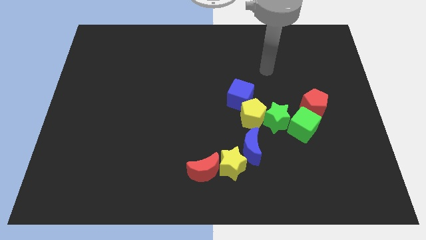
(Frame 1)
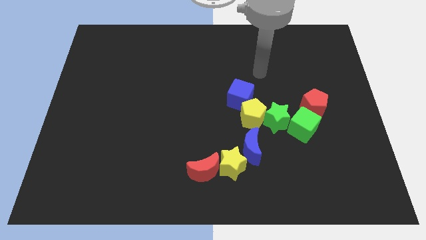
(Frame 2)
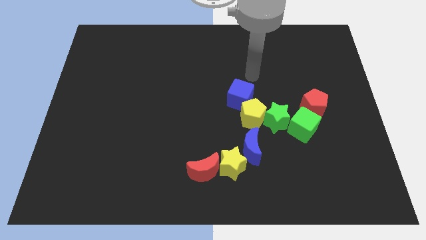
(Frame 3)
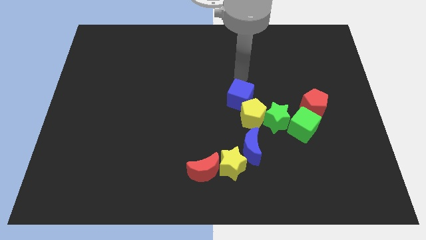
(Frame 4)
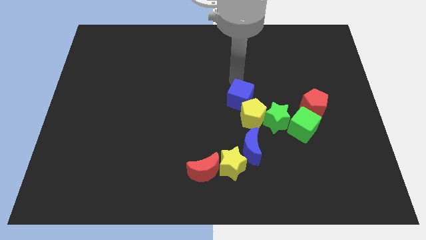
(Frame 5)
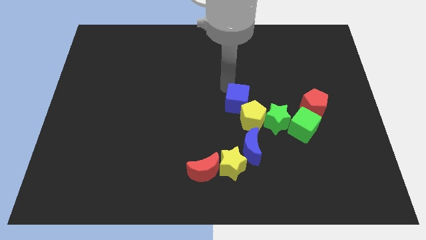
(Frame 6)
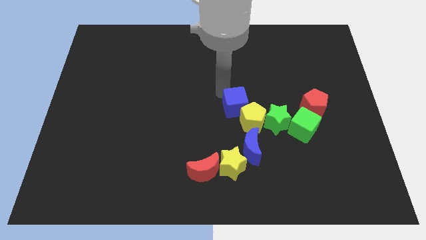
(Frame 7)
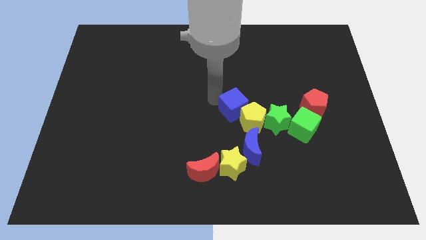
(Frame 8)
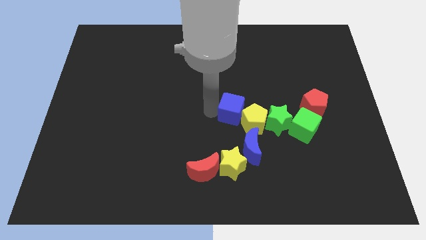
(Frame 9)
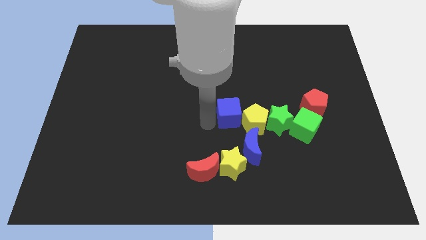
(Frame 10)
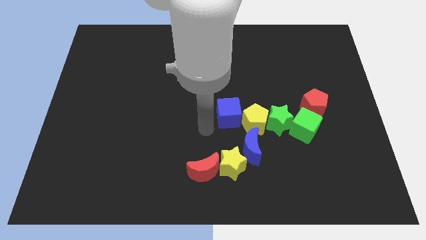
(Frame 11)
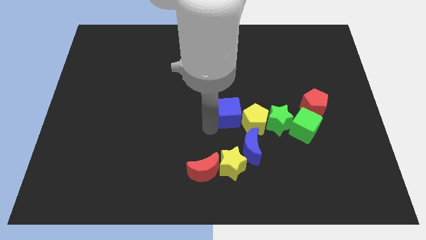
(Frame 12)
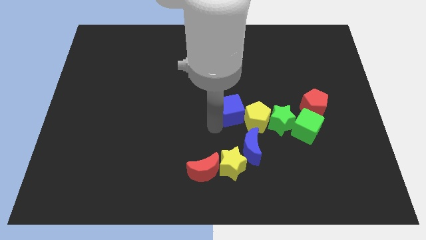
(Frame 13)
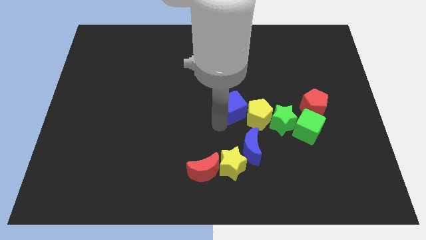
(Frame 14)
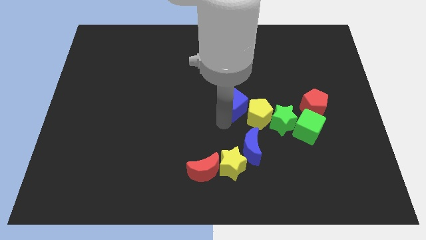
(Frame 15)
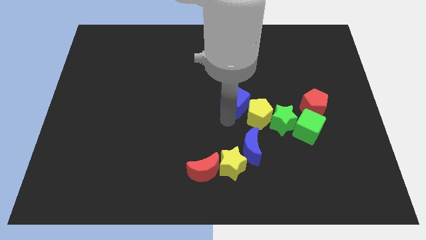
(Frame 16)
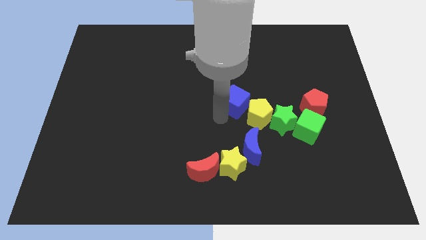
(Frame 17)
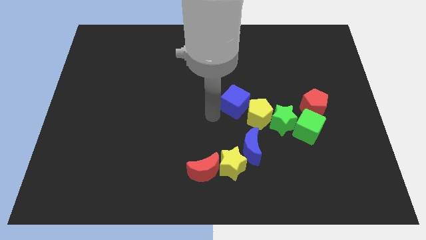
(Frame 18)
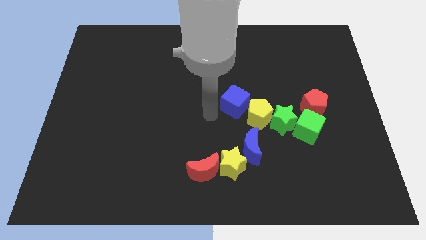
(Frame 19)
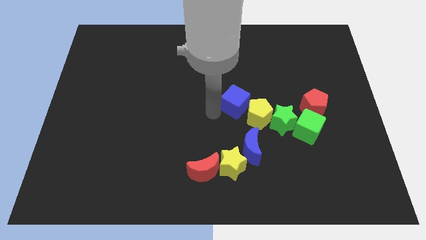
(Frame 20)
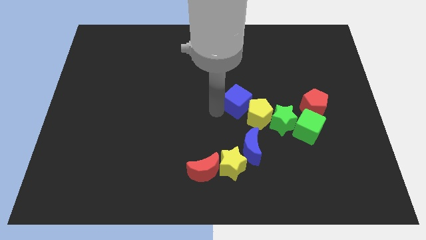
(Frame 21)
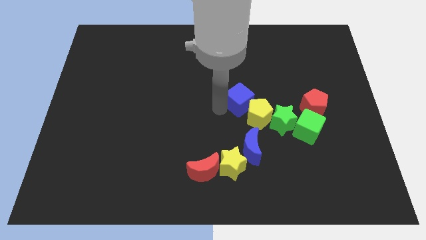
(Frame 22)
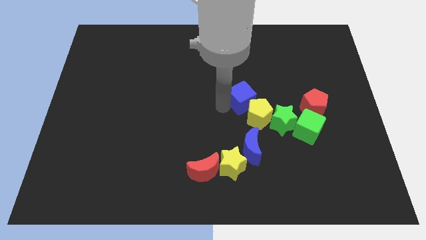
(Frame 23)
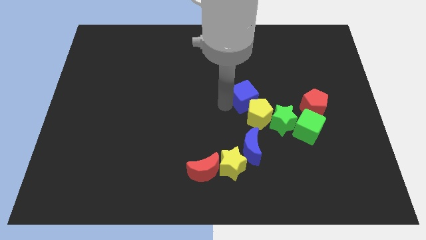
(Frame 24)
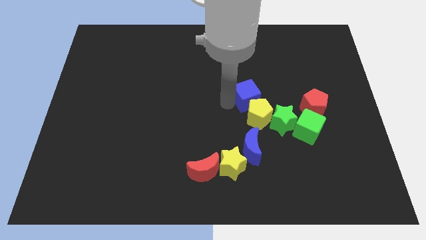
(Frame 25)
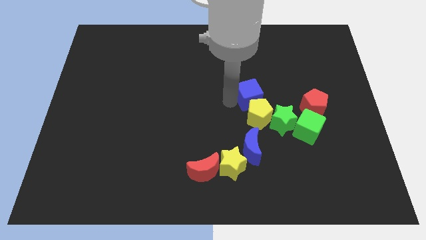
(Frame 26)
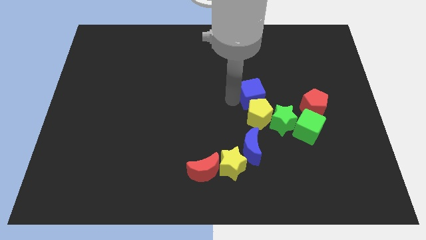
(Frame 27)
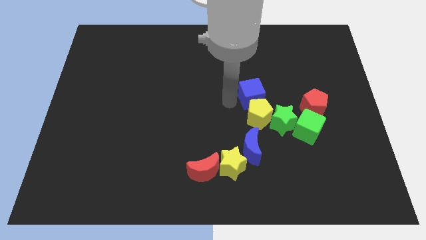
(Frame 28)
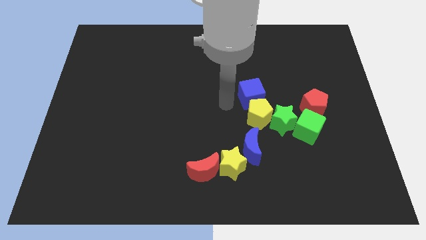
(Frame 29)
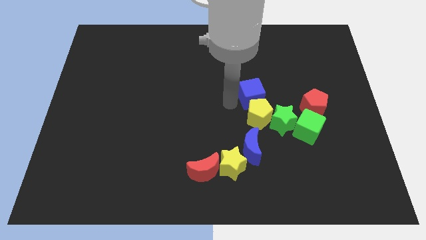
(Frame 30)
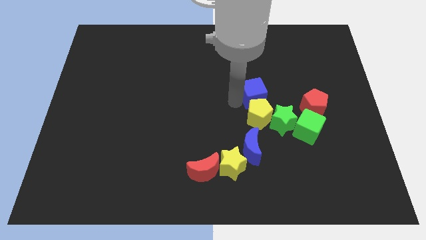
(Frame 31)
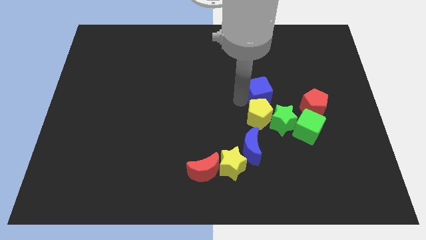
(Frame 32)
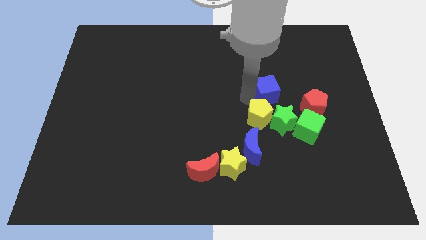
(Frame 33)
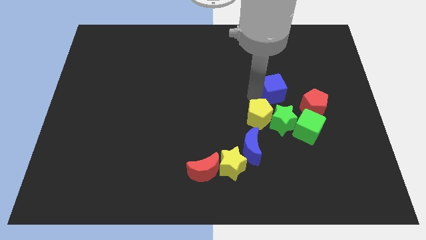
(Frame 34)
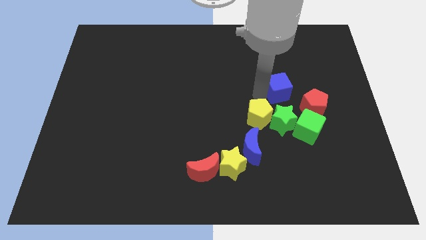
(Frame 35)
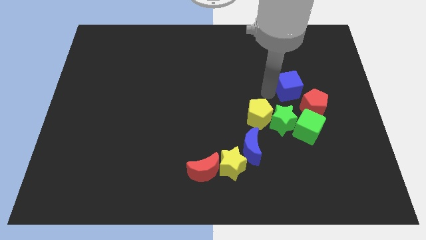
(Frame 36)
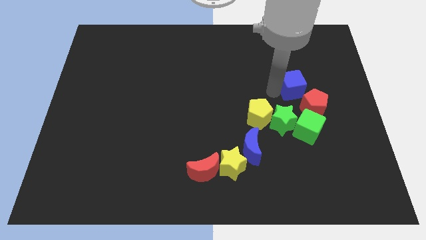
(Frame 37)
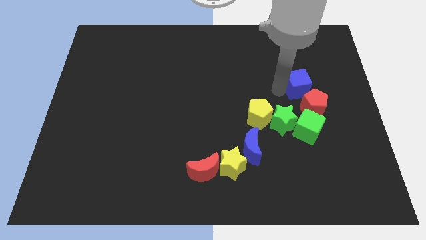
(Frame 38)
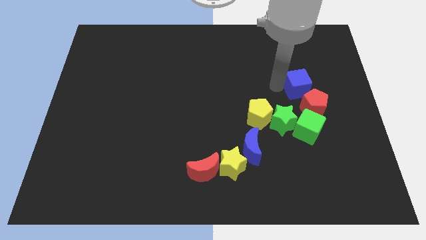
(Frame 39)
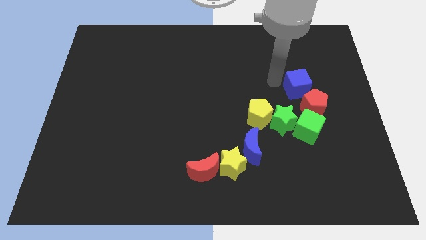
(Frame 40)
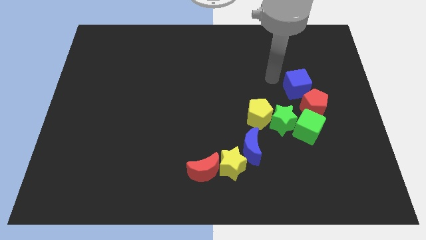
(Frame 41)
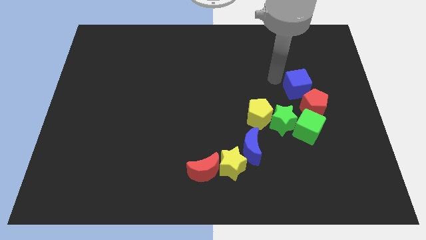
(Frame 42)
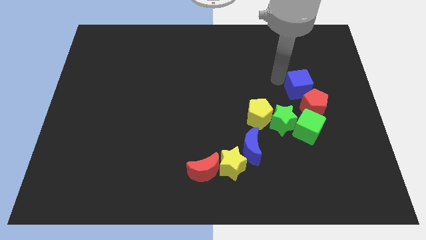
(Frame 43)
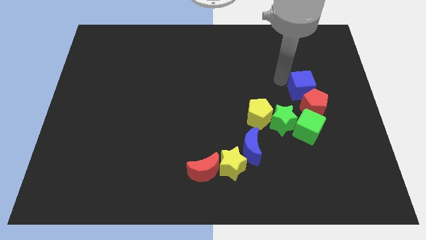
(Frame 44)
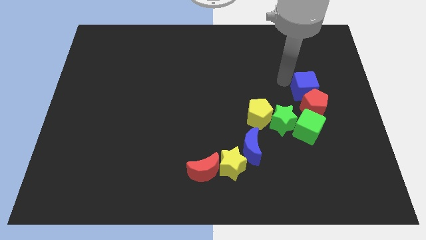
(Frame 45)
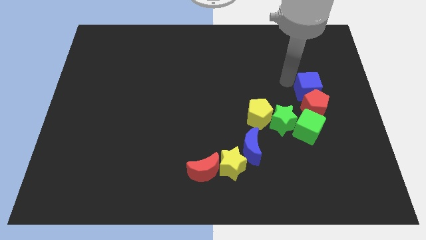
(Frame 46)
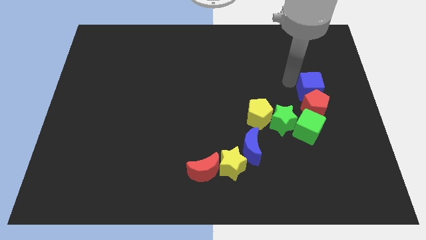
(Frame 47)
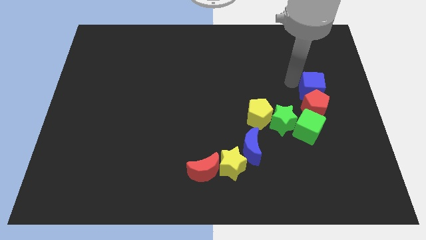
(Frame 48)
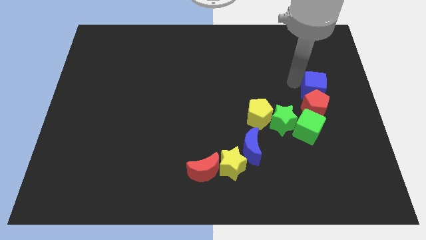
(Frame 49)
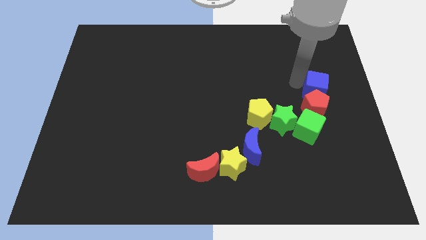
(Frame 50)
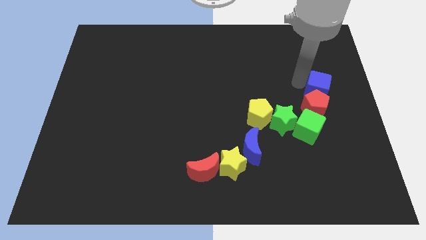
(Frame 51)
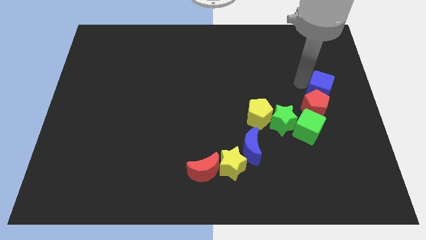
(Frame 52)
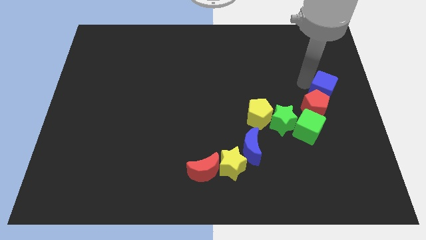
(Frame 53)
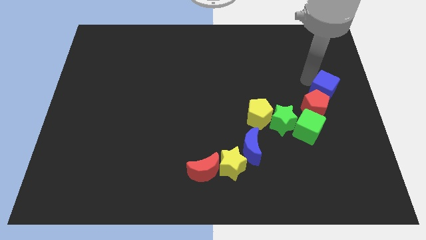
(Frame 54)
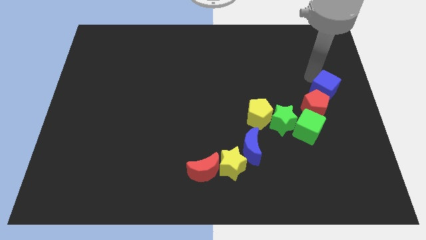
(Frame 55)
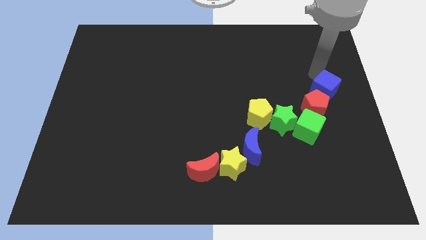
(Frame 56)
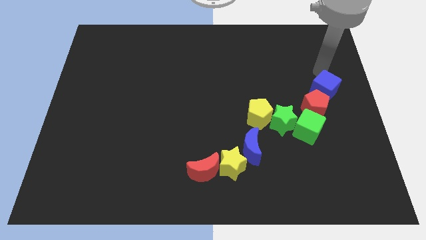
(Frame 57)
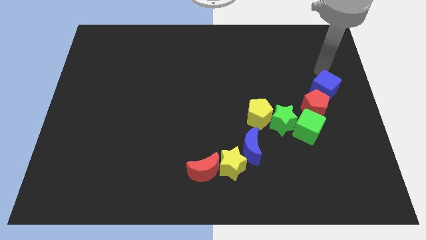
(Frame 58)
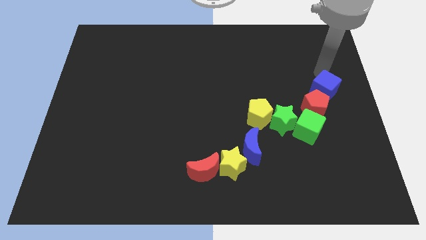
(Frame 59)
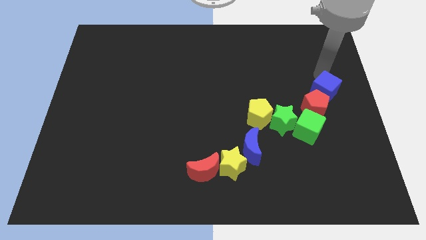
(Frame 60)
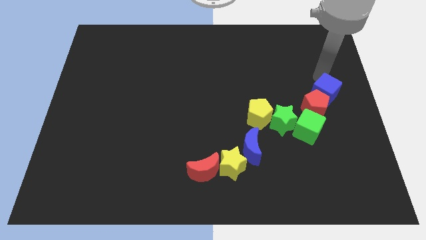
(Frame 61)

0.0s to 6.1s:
put the blue cube to the top right side of the green cube

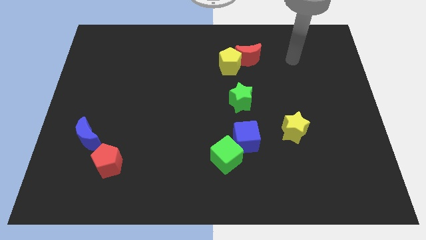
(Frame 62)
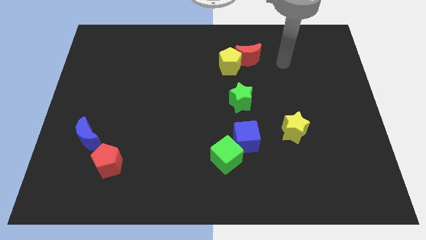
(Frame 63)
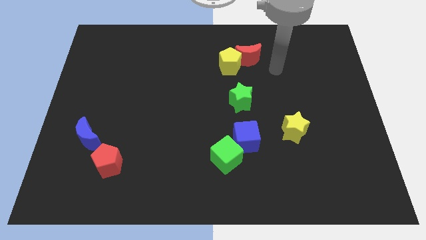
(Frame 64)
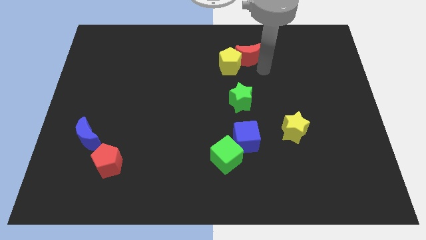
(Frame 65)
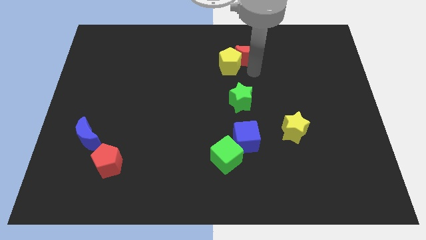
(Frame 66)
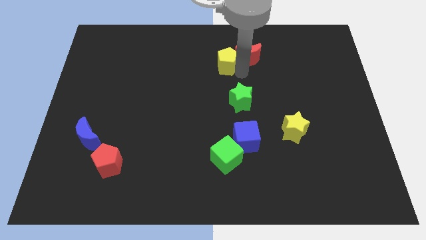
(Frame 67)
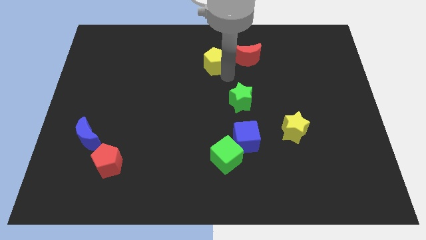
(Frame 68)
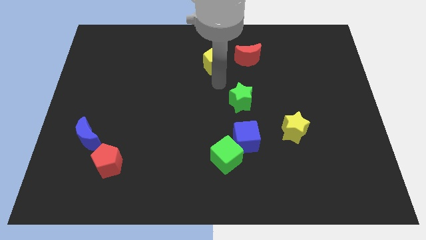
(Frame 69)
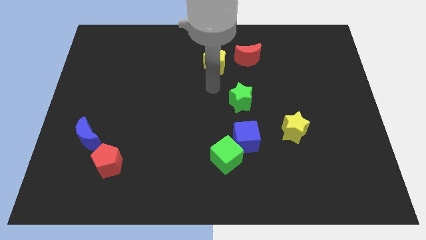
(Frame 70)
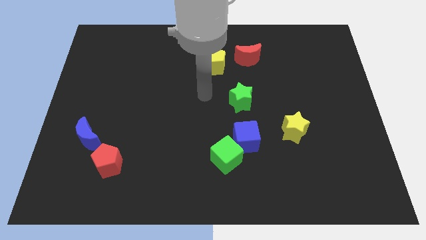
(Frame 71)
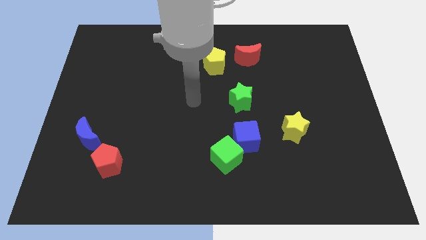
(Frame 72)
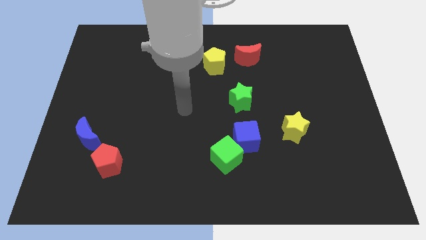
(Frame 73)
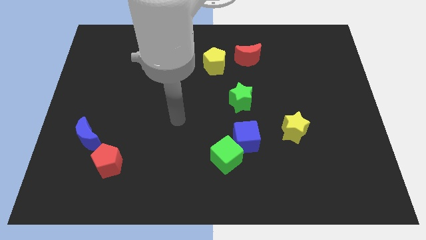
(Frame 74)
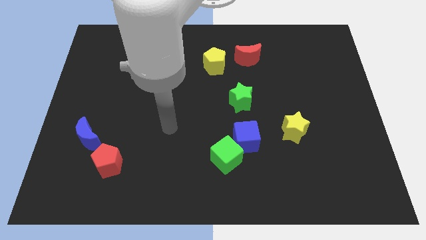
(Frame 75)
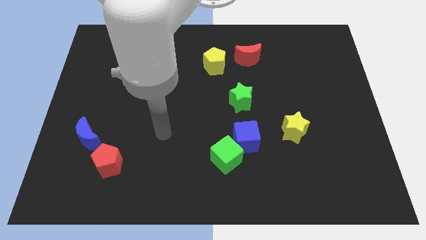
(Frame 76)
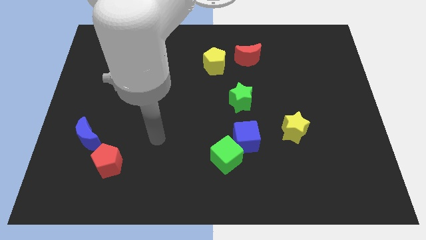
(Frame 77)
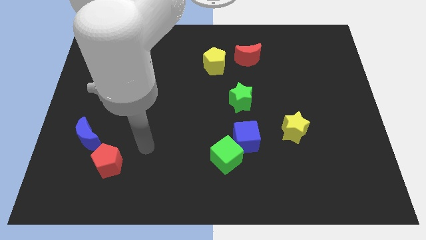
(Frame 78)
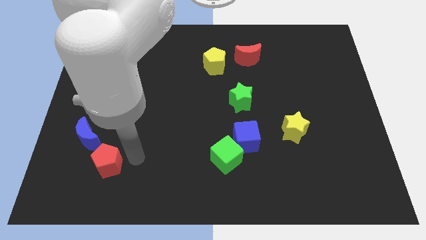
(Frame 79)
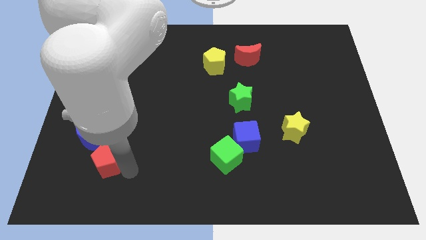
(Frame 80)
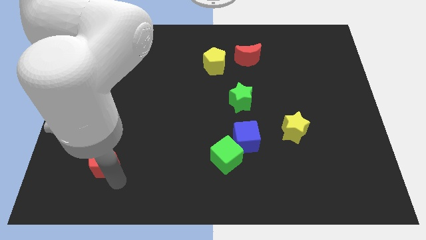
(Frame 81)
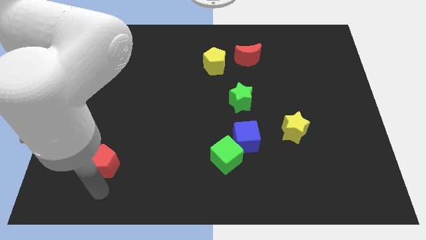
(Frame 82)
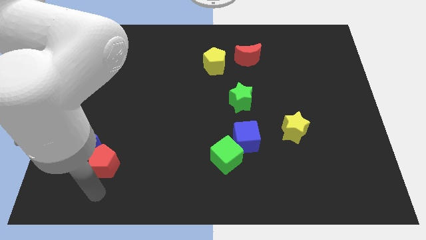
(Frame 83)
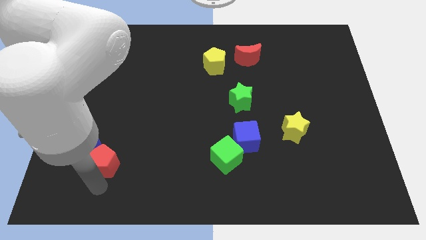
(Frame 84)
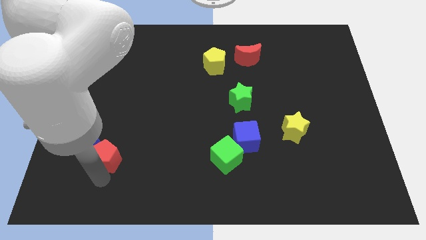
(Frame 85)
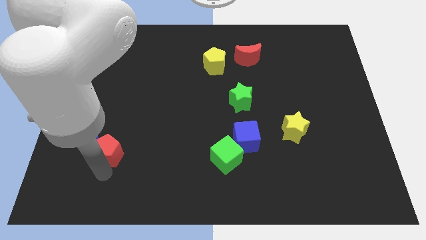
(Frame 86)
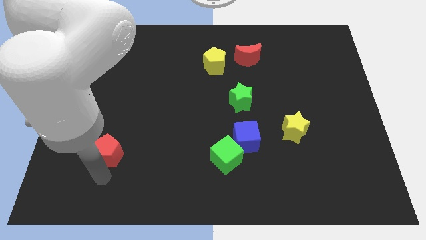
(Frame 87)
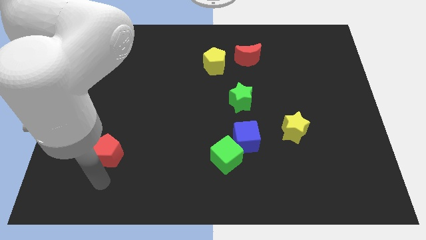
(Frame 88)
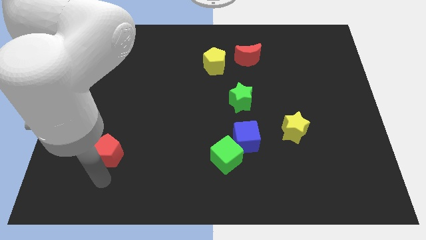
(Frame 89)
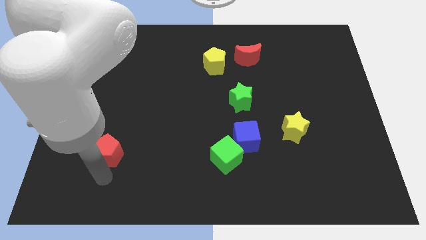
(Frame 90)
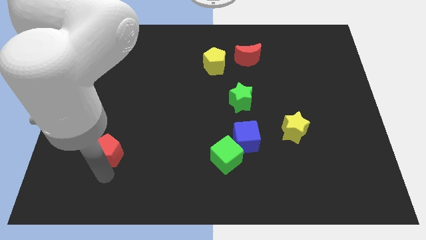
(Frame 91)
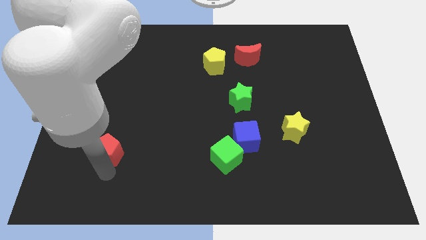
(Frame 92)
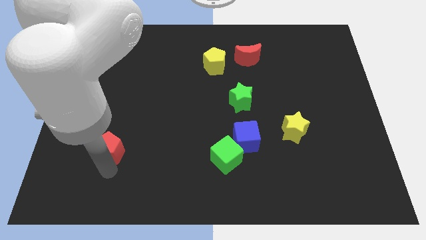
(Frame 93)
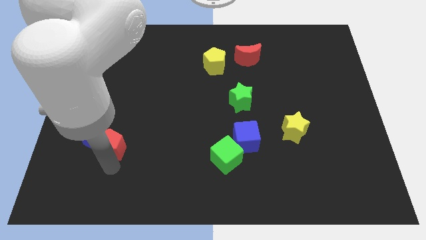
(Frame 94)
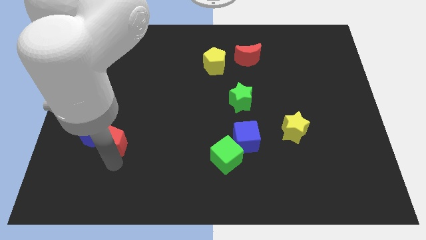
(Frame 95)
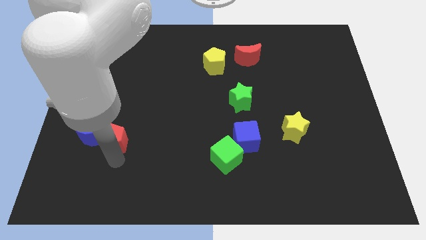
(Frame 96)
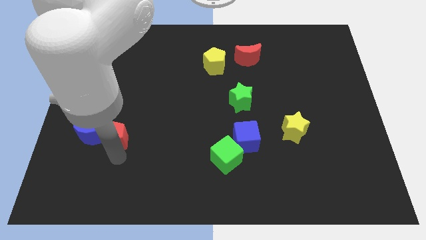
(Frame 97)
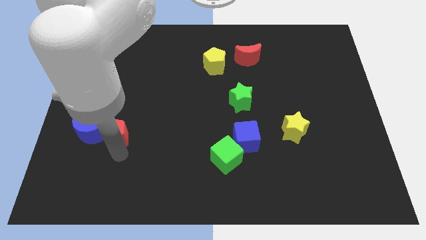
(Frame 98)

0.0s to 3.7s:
push the red pentagon to the top right of the blue moon
